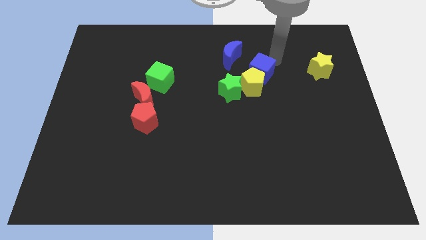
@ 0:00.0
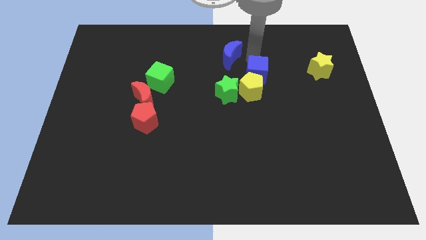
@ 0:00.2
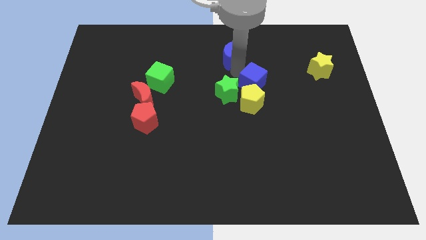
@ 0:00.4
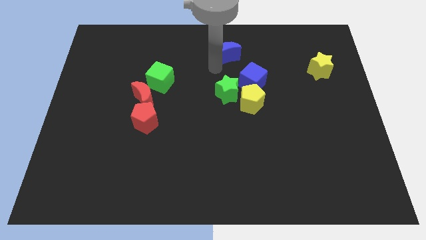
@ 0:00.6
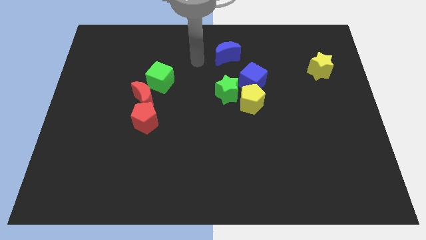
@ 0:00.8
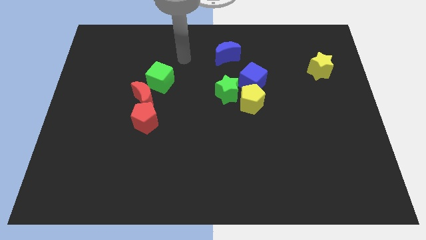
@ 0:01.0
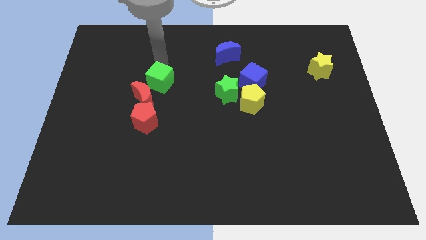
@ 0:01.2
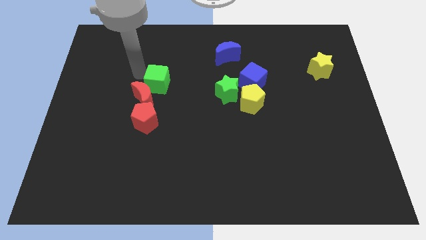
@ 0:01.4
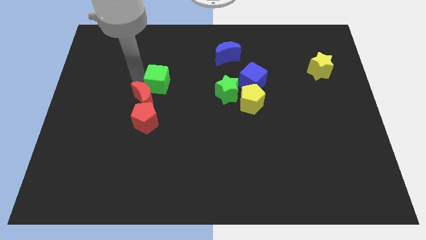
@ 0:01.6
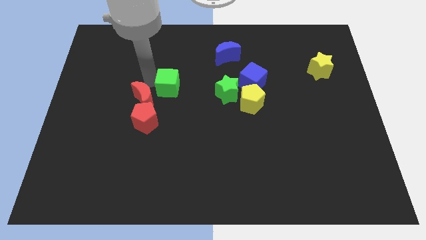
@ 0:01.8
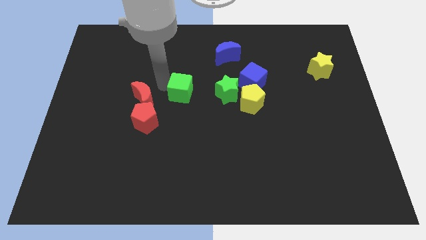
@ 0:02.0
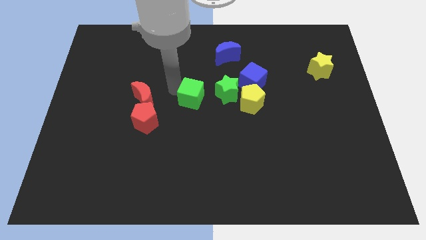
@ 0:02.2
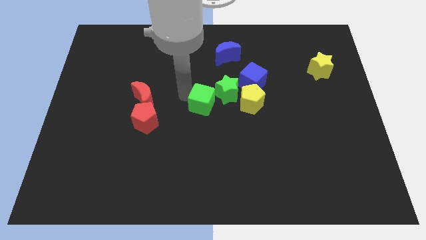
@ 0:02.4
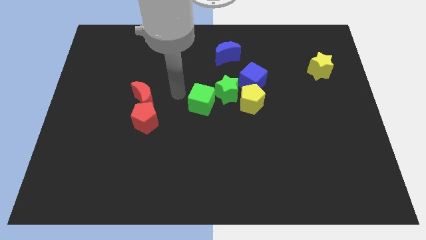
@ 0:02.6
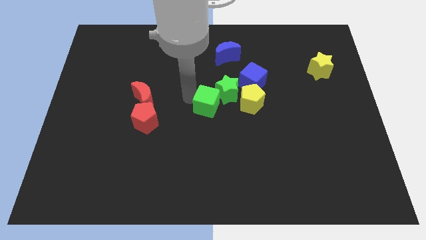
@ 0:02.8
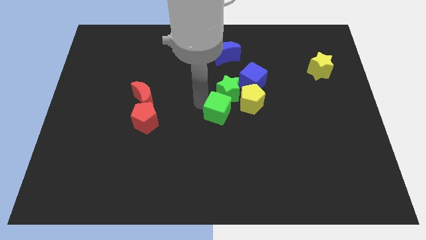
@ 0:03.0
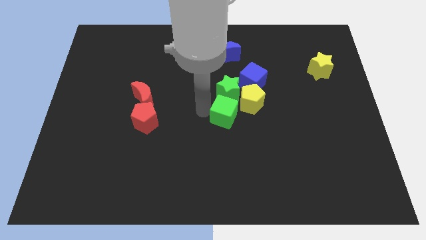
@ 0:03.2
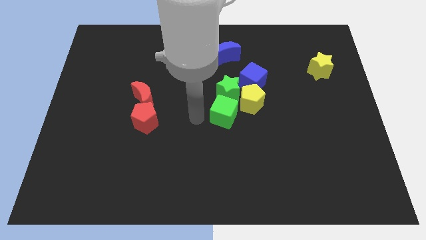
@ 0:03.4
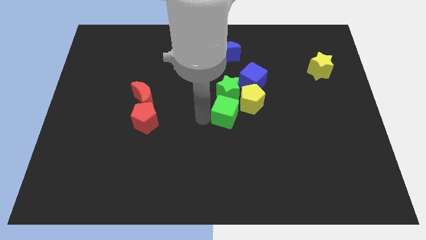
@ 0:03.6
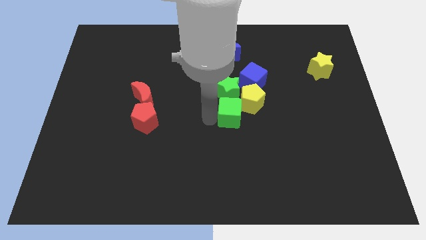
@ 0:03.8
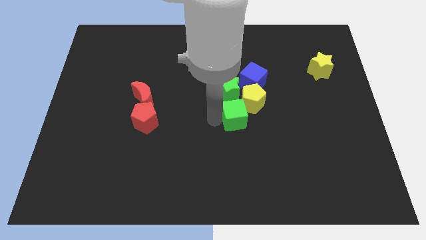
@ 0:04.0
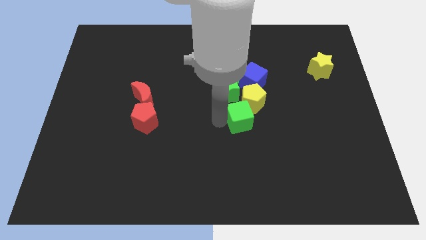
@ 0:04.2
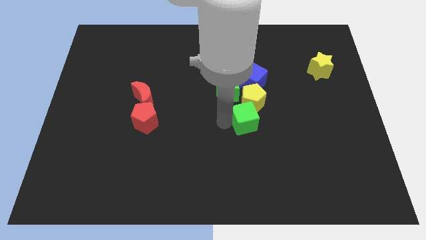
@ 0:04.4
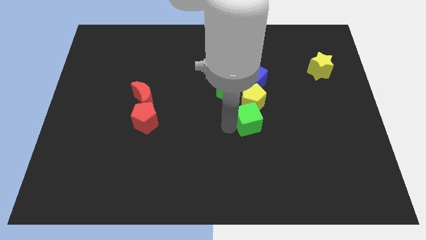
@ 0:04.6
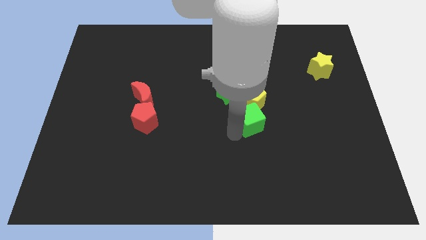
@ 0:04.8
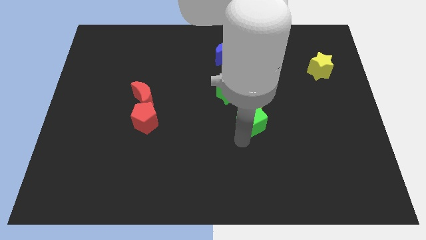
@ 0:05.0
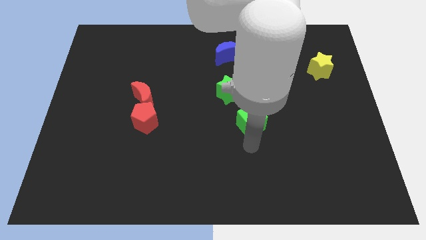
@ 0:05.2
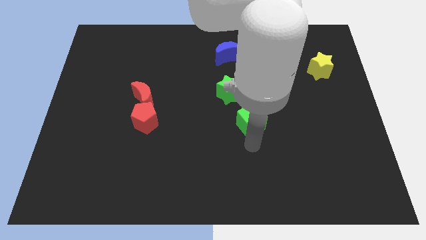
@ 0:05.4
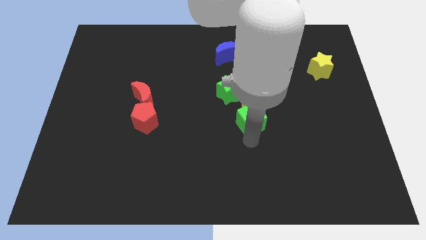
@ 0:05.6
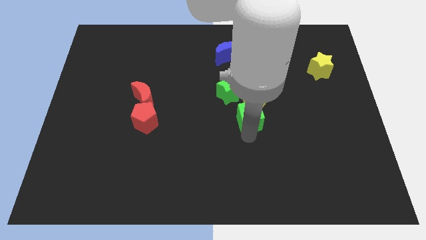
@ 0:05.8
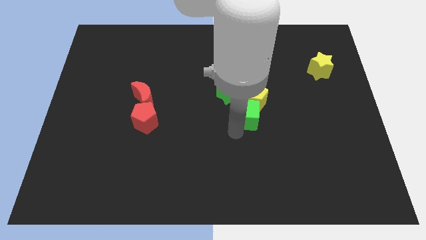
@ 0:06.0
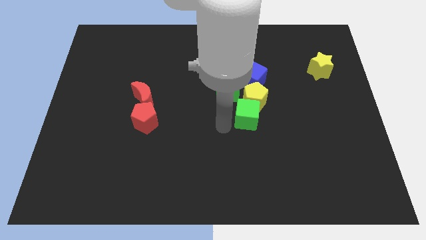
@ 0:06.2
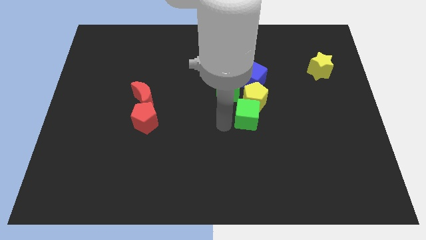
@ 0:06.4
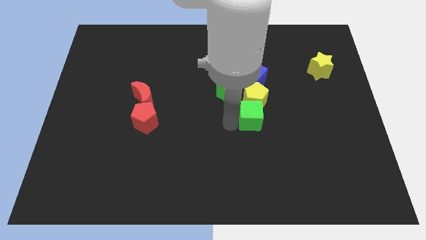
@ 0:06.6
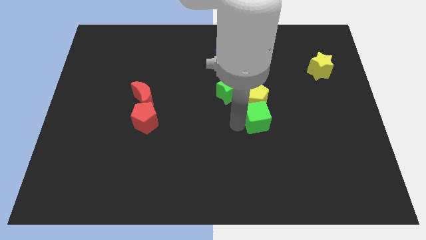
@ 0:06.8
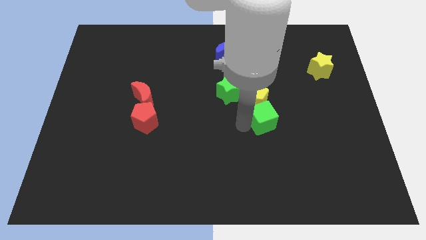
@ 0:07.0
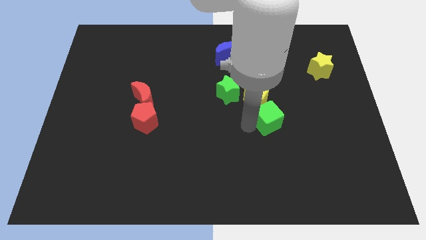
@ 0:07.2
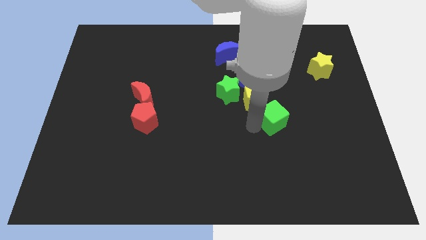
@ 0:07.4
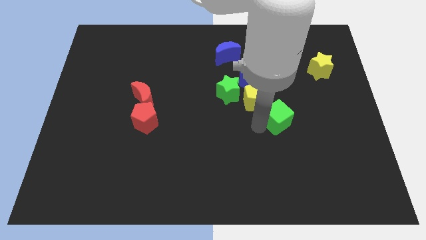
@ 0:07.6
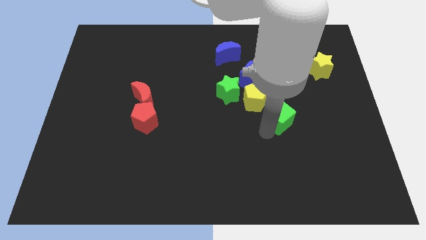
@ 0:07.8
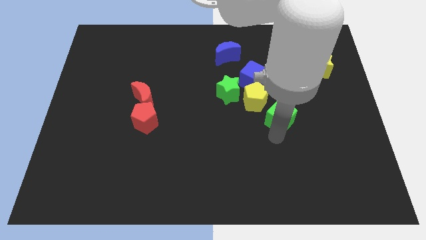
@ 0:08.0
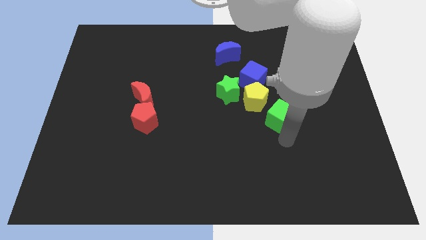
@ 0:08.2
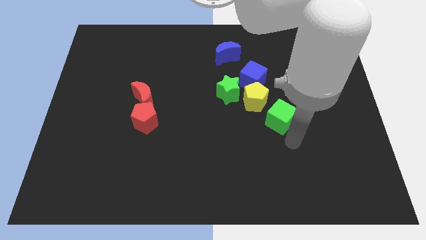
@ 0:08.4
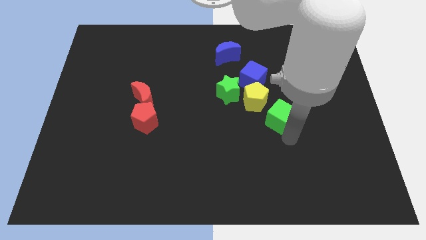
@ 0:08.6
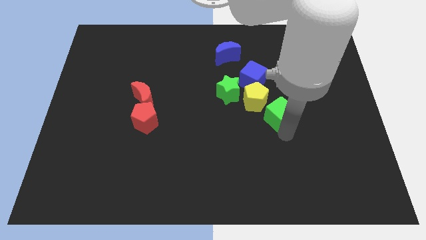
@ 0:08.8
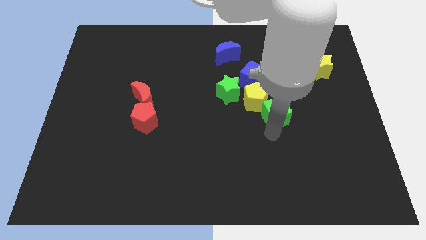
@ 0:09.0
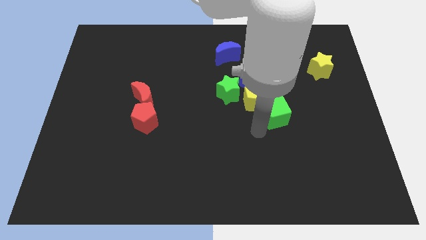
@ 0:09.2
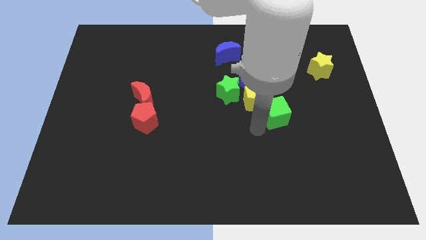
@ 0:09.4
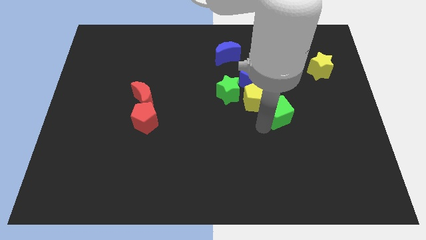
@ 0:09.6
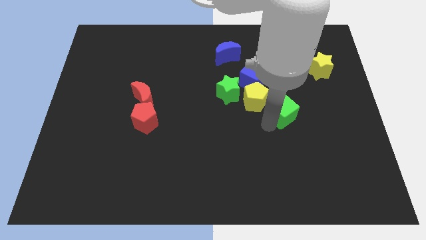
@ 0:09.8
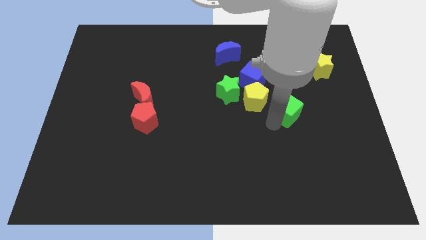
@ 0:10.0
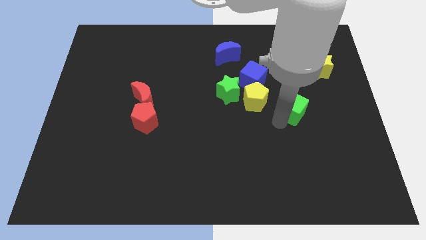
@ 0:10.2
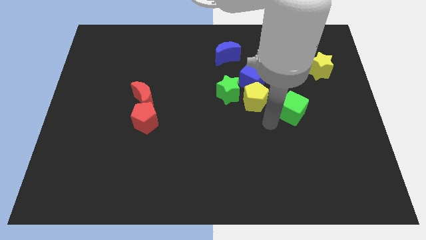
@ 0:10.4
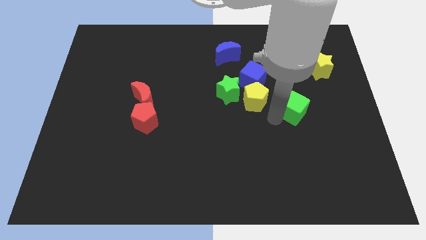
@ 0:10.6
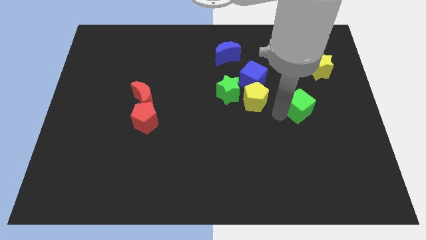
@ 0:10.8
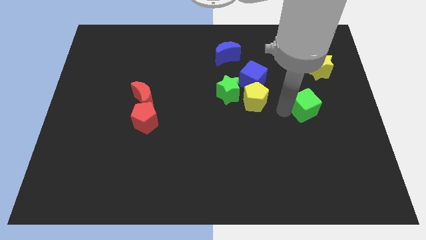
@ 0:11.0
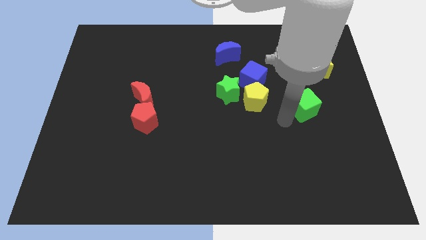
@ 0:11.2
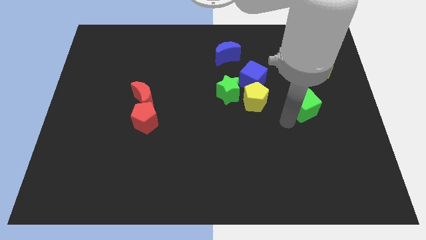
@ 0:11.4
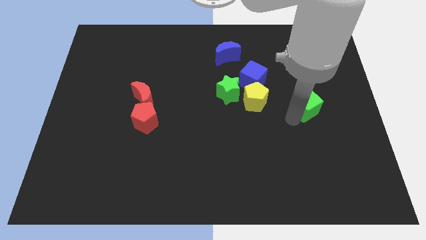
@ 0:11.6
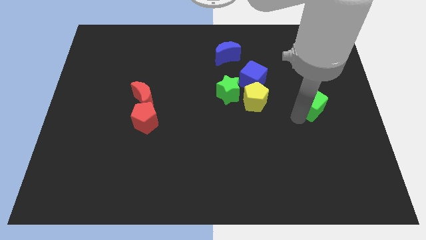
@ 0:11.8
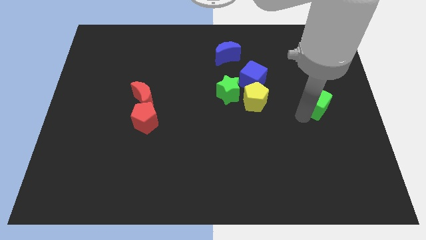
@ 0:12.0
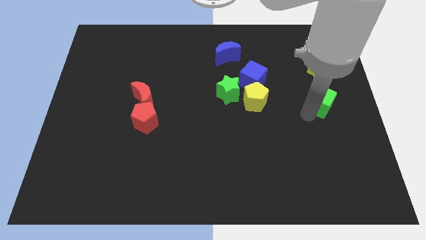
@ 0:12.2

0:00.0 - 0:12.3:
slide the green cube to the right side

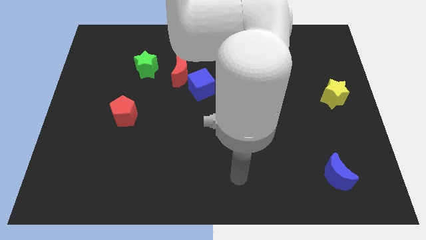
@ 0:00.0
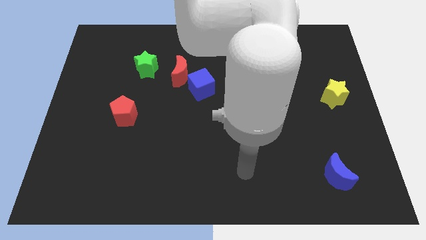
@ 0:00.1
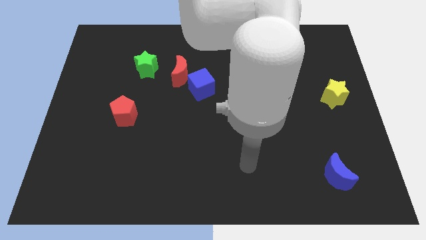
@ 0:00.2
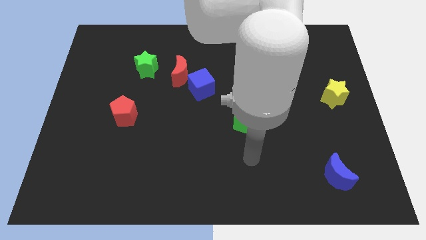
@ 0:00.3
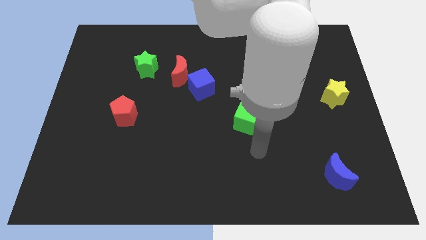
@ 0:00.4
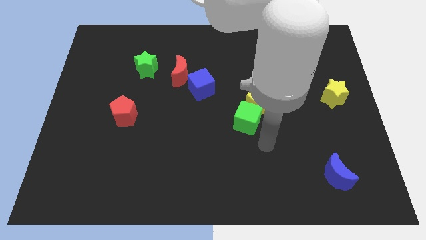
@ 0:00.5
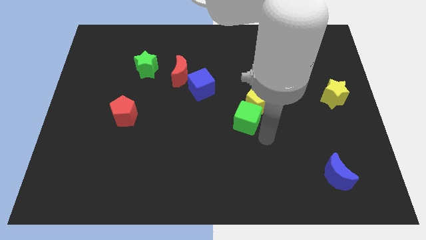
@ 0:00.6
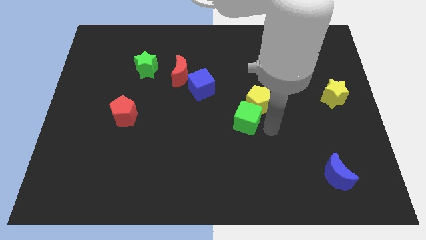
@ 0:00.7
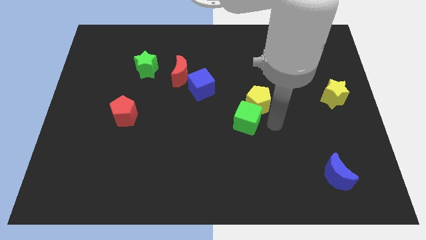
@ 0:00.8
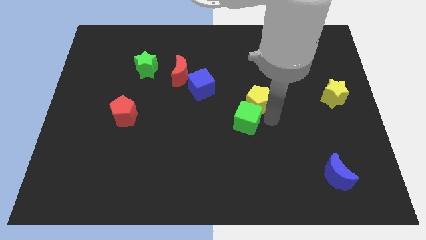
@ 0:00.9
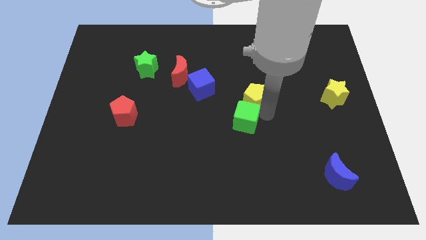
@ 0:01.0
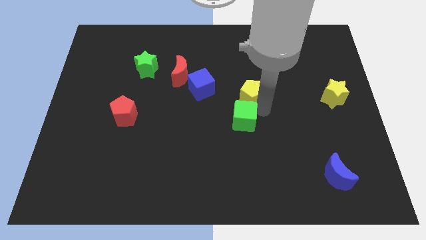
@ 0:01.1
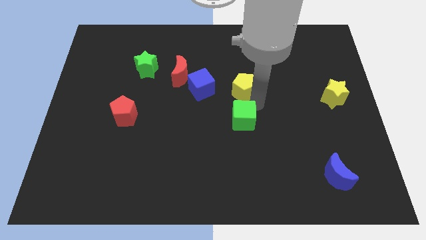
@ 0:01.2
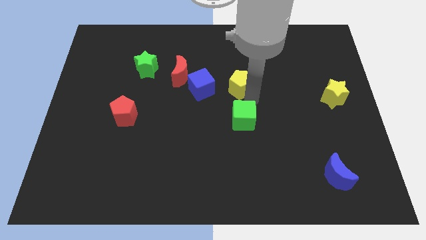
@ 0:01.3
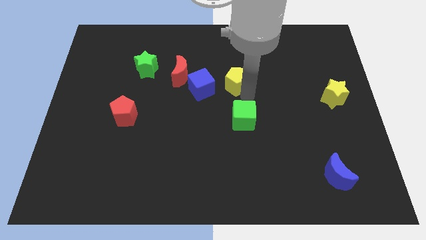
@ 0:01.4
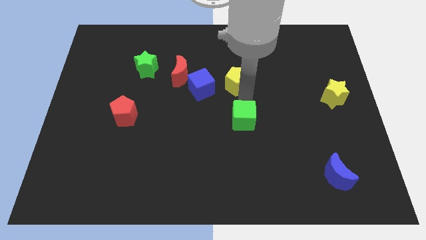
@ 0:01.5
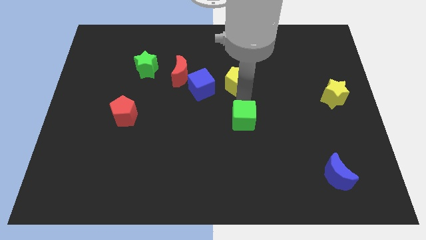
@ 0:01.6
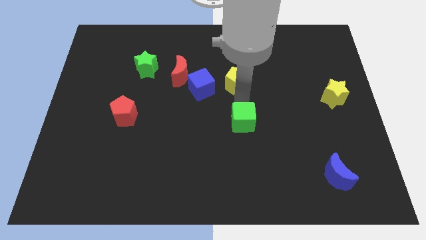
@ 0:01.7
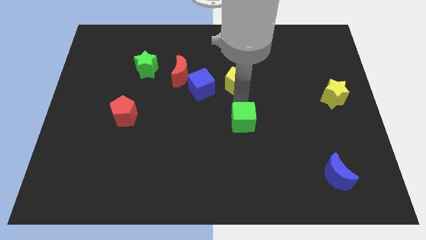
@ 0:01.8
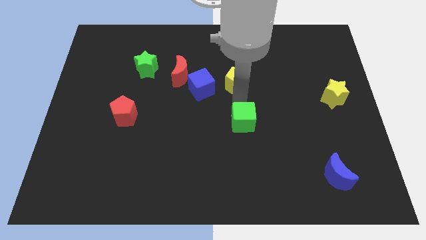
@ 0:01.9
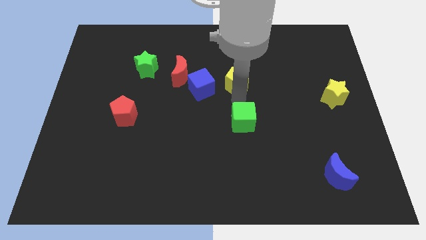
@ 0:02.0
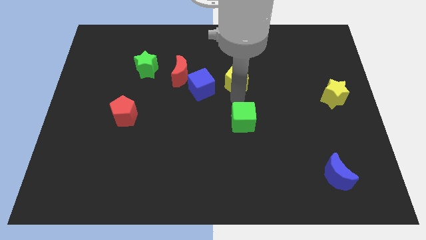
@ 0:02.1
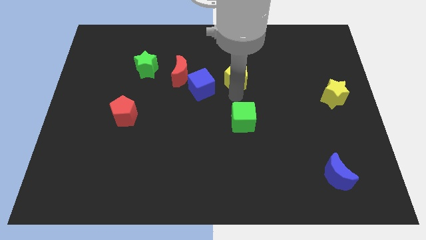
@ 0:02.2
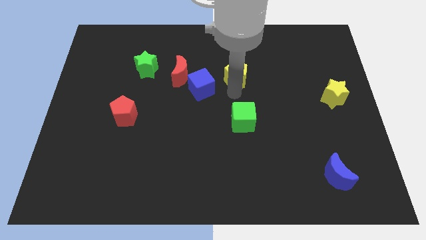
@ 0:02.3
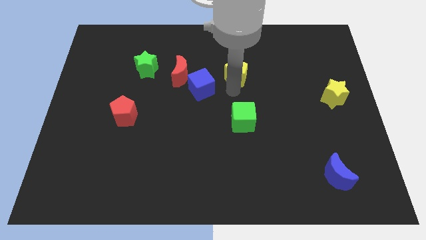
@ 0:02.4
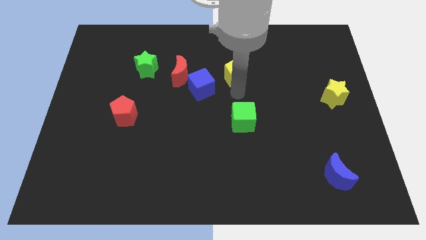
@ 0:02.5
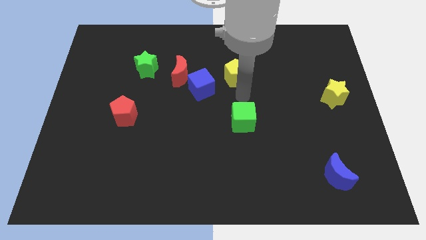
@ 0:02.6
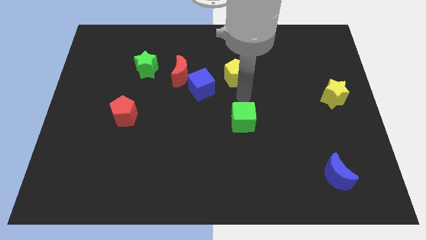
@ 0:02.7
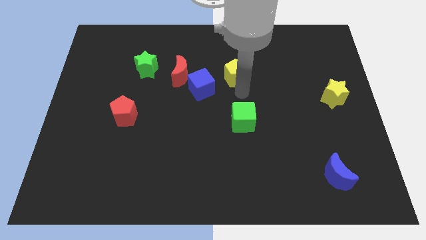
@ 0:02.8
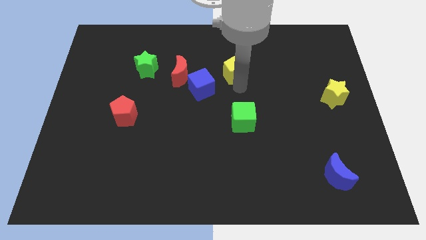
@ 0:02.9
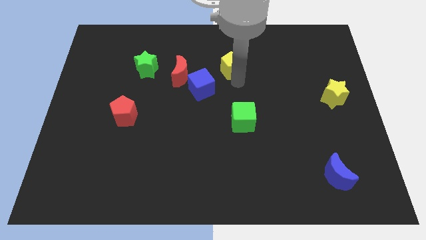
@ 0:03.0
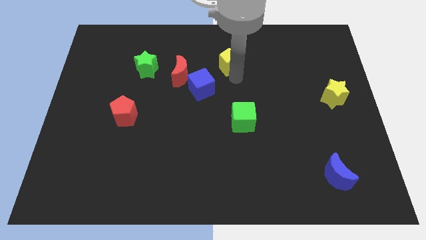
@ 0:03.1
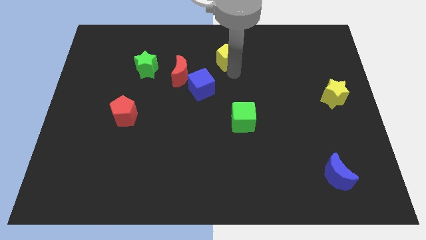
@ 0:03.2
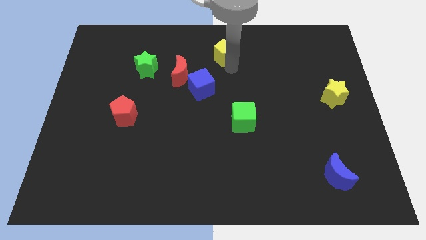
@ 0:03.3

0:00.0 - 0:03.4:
slide the yellow pentagon to the towards your base
